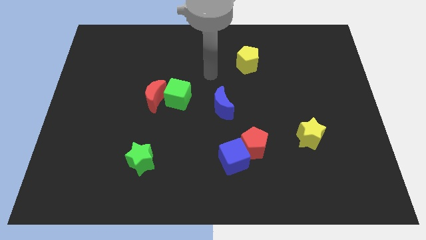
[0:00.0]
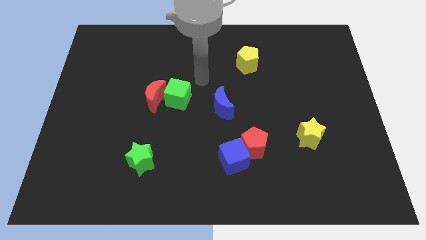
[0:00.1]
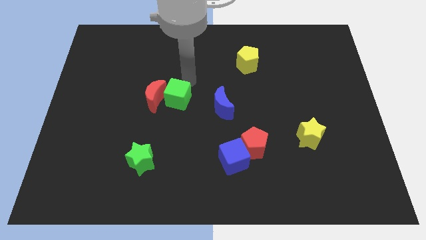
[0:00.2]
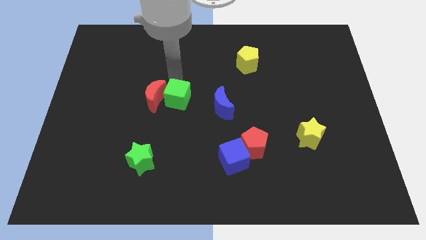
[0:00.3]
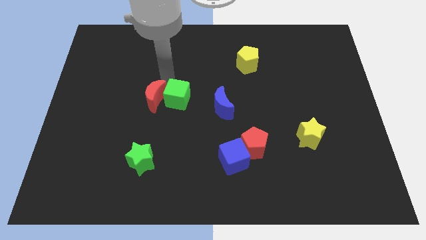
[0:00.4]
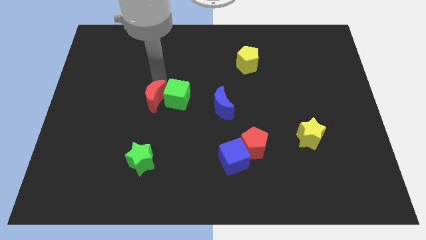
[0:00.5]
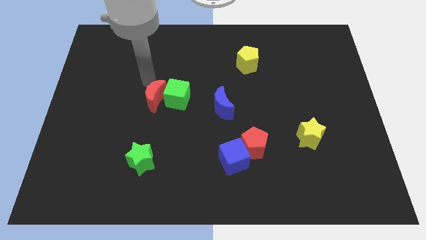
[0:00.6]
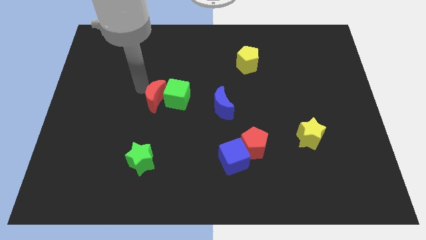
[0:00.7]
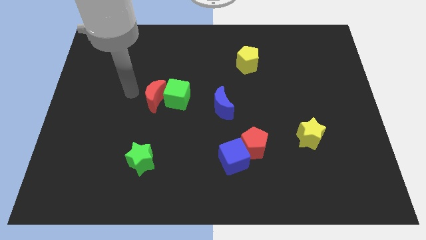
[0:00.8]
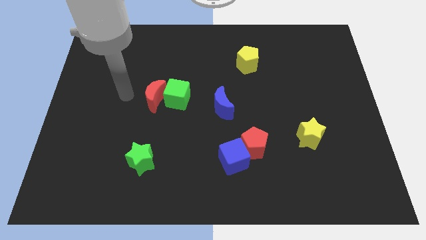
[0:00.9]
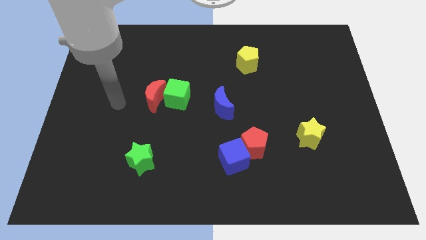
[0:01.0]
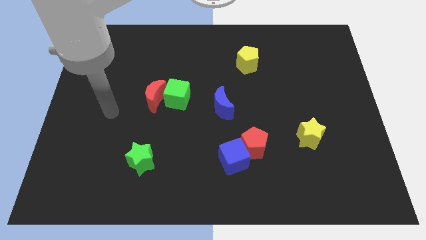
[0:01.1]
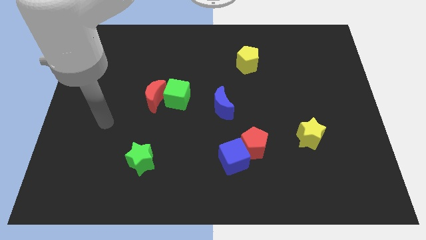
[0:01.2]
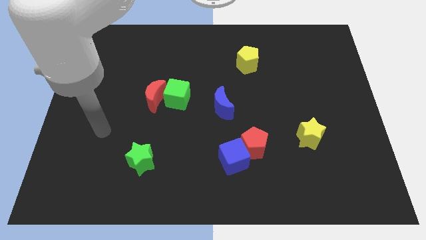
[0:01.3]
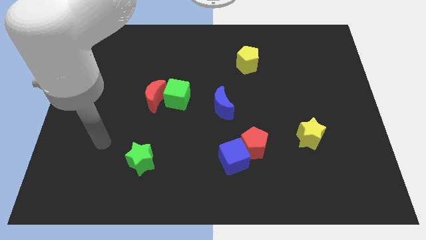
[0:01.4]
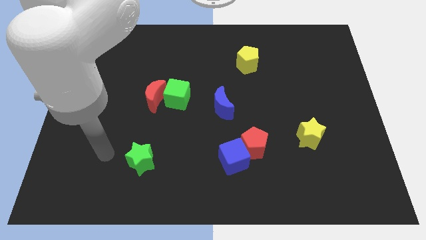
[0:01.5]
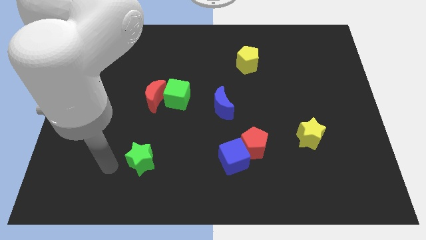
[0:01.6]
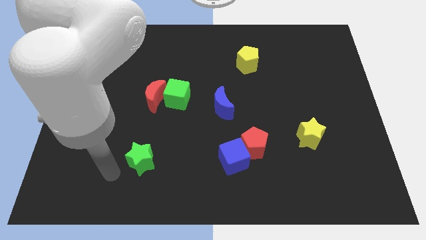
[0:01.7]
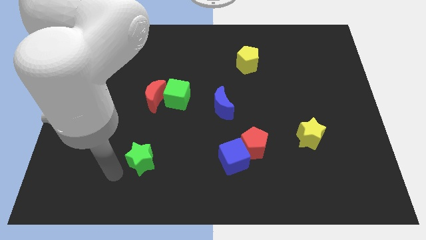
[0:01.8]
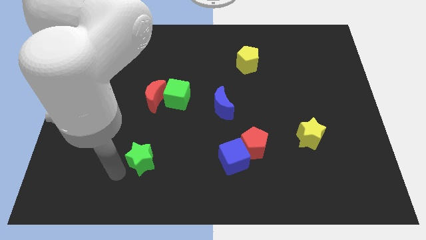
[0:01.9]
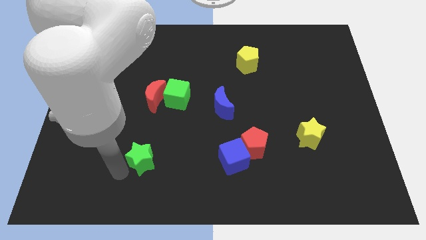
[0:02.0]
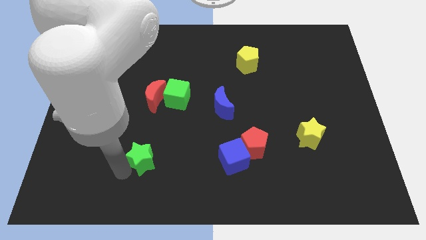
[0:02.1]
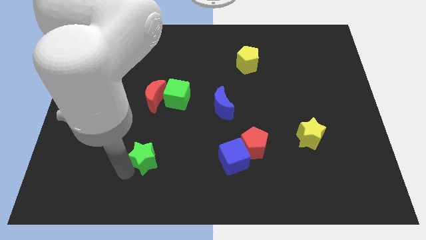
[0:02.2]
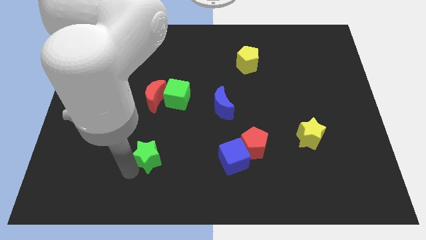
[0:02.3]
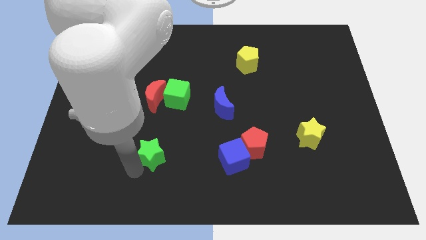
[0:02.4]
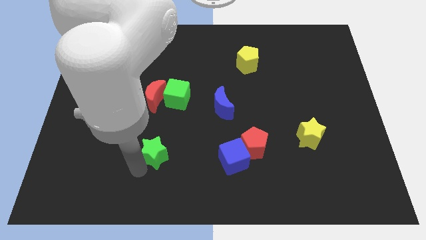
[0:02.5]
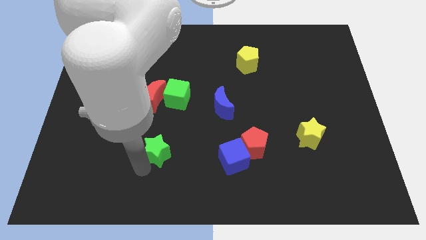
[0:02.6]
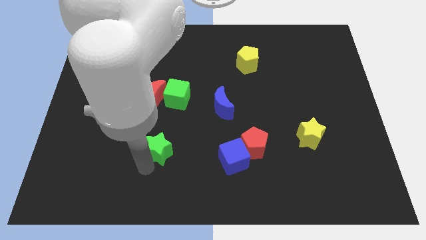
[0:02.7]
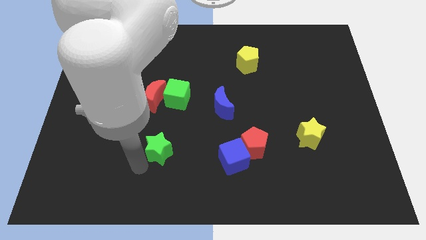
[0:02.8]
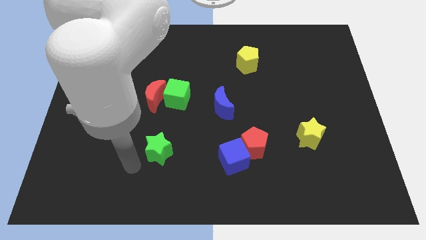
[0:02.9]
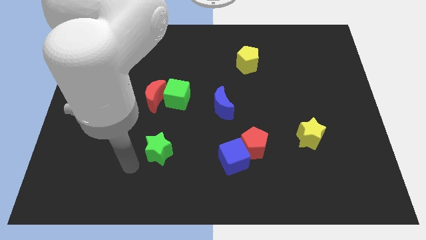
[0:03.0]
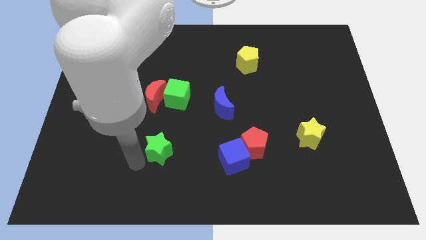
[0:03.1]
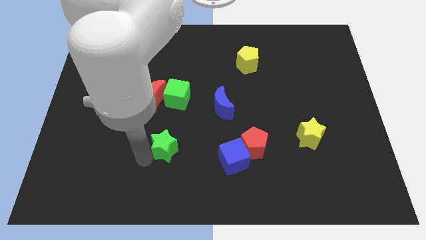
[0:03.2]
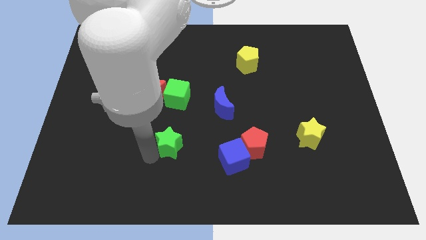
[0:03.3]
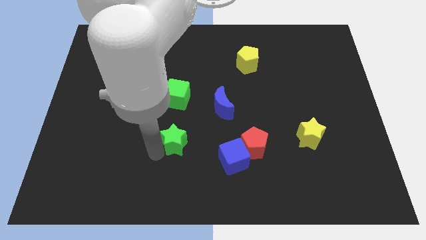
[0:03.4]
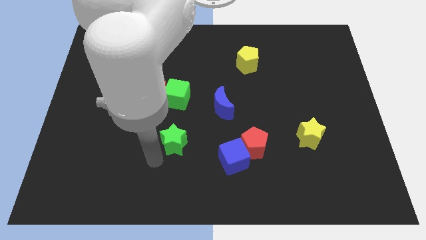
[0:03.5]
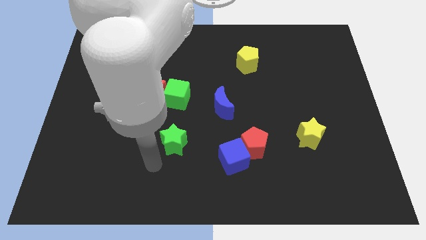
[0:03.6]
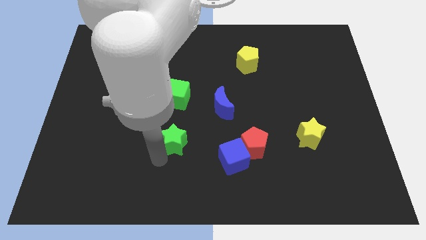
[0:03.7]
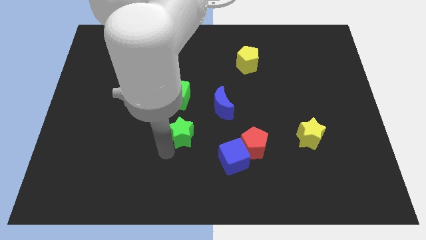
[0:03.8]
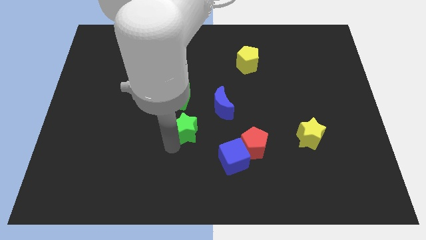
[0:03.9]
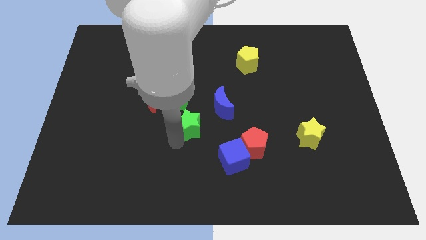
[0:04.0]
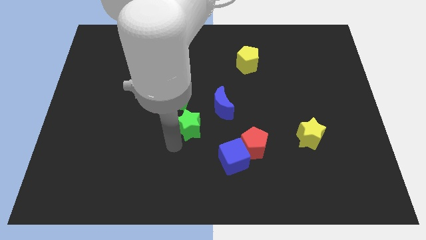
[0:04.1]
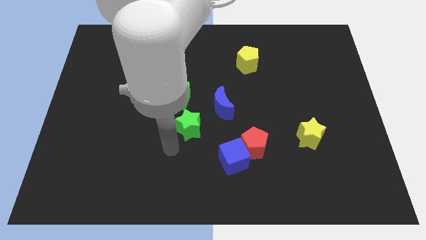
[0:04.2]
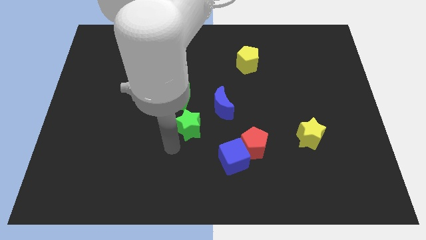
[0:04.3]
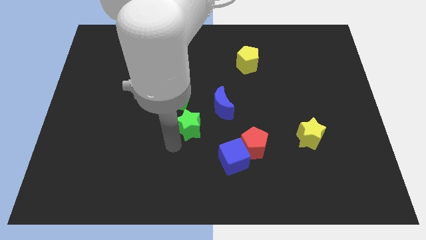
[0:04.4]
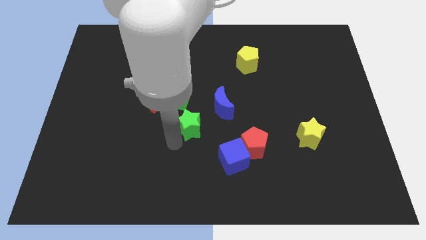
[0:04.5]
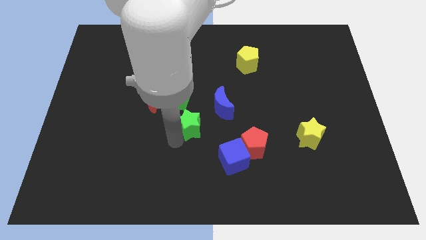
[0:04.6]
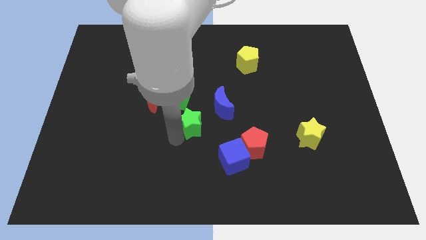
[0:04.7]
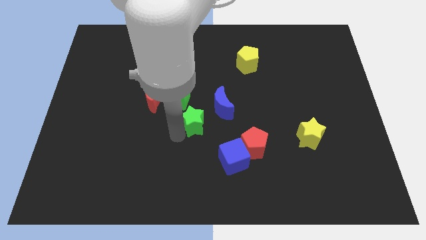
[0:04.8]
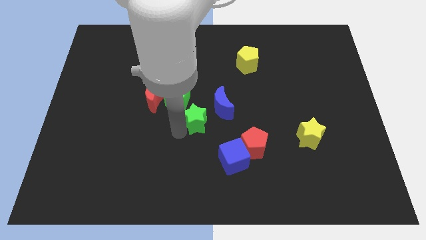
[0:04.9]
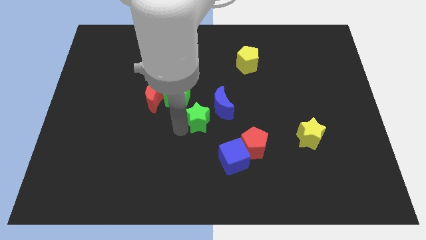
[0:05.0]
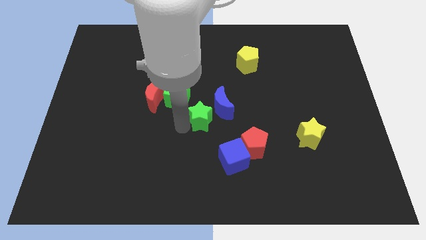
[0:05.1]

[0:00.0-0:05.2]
push the green star to the blue moon

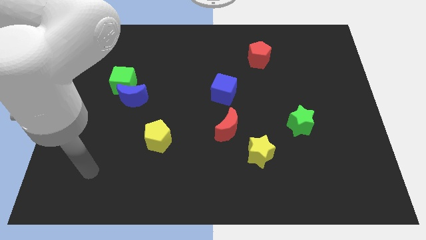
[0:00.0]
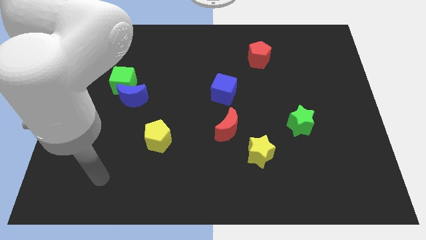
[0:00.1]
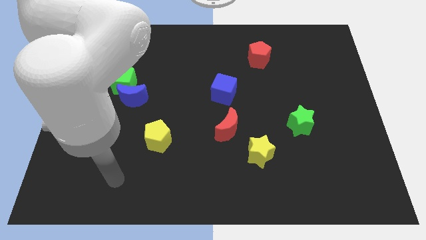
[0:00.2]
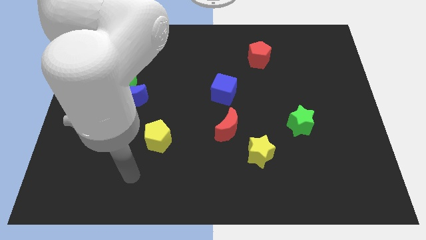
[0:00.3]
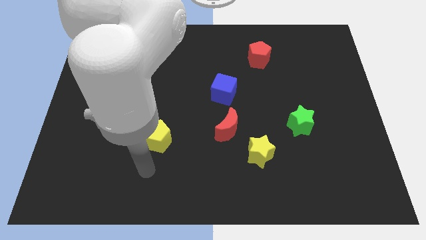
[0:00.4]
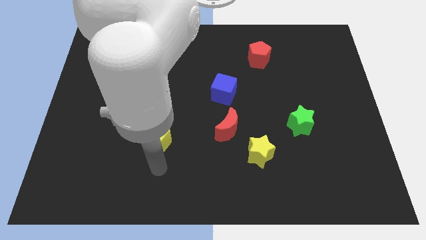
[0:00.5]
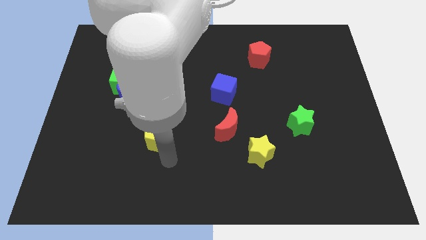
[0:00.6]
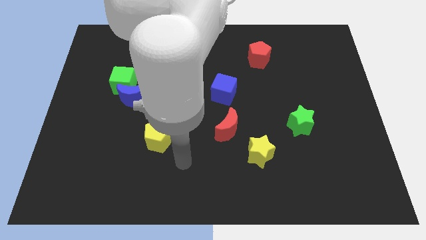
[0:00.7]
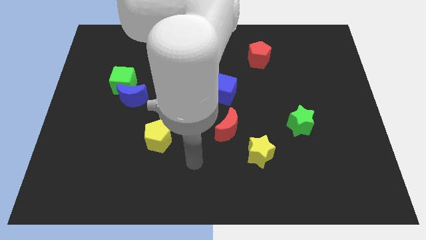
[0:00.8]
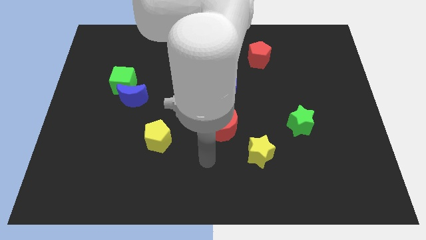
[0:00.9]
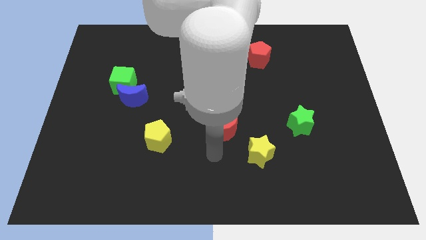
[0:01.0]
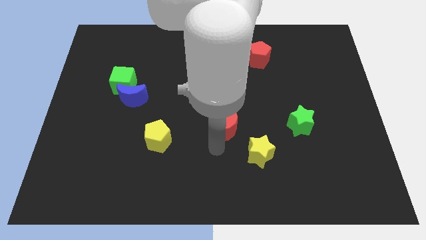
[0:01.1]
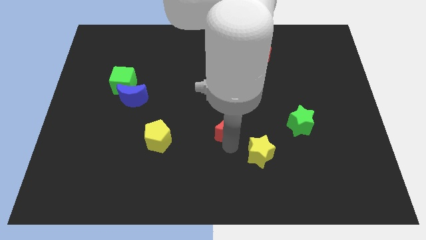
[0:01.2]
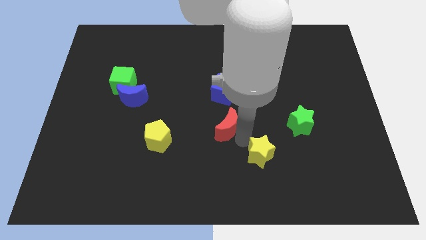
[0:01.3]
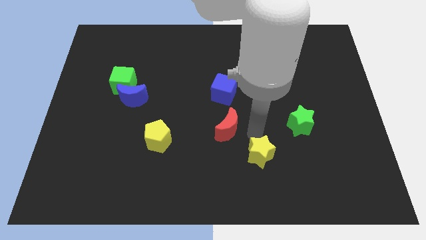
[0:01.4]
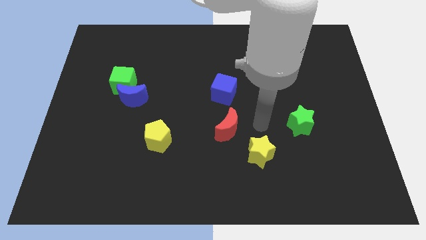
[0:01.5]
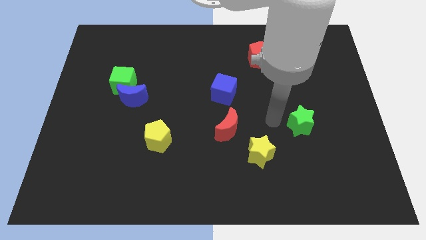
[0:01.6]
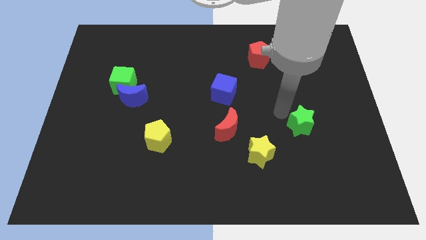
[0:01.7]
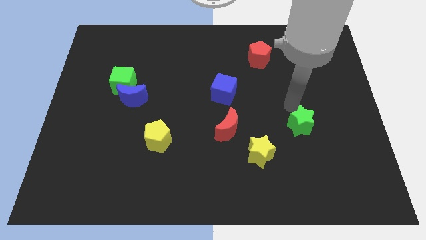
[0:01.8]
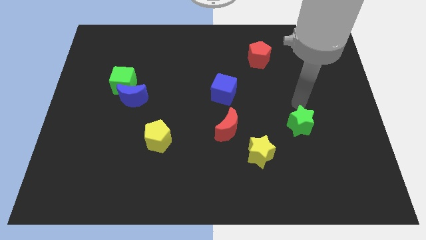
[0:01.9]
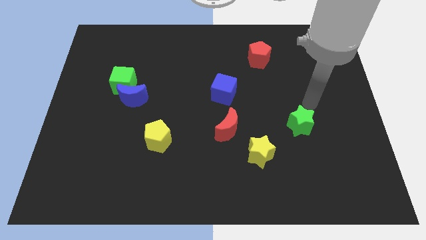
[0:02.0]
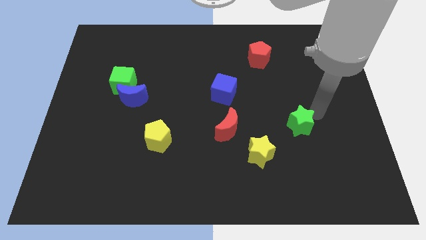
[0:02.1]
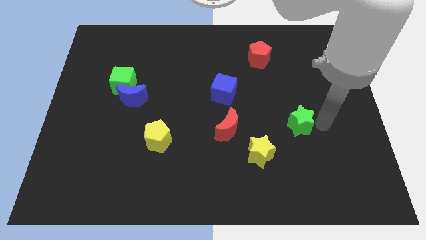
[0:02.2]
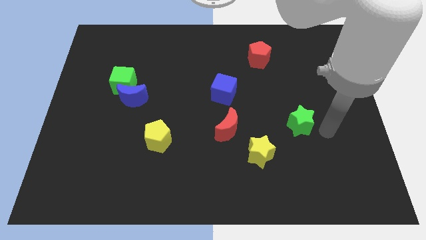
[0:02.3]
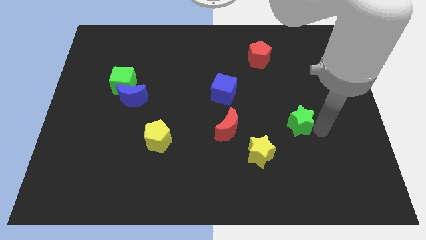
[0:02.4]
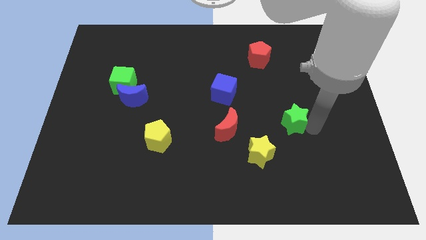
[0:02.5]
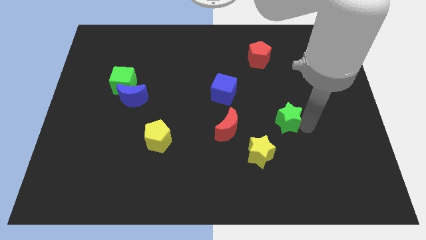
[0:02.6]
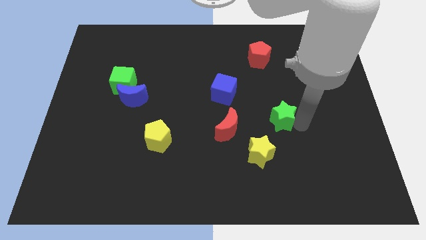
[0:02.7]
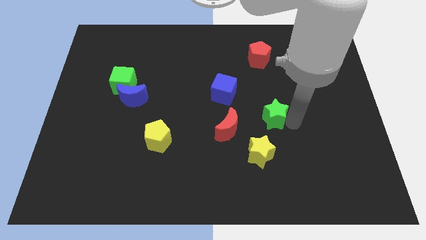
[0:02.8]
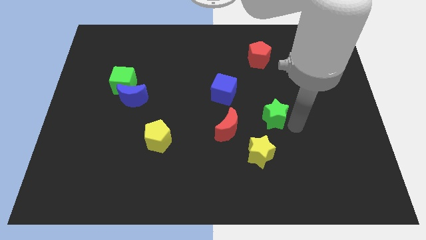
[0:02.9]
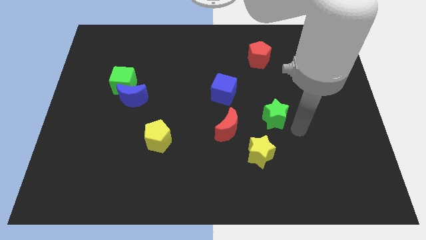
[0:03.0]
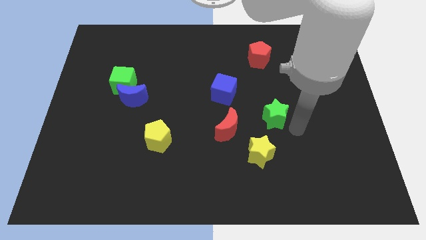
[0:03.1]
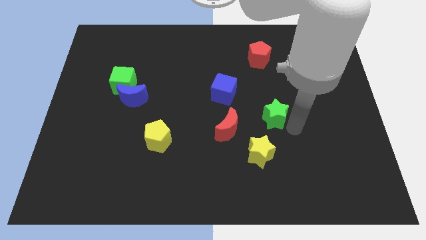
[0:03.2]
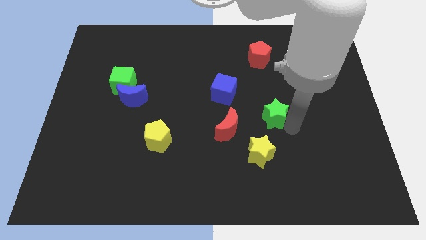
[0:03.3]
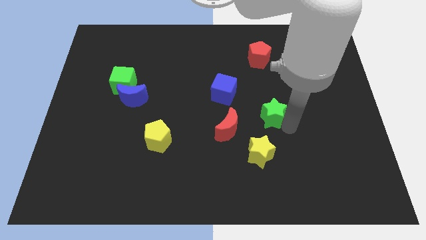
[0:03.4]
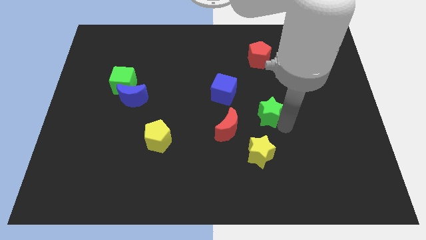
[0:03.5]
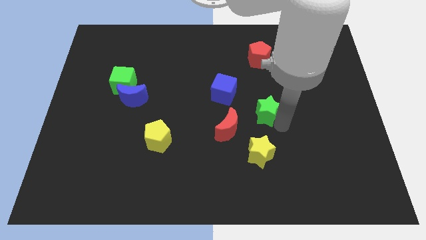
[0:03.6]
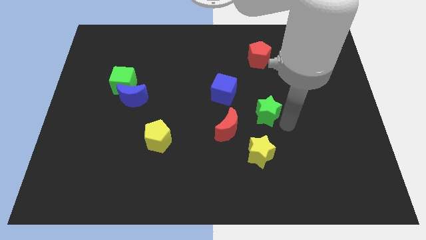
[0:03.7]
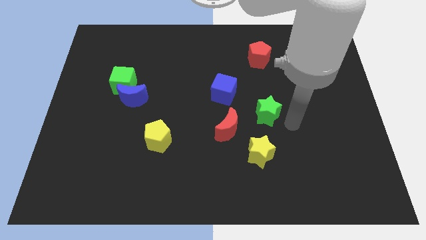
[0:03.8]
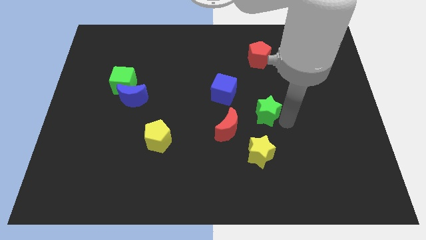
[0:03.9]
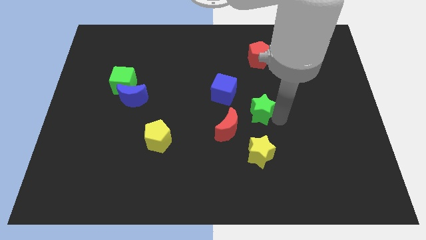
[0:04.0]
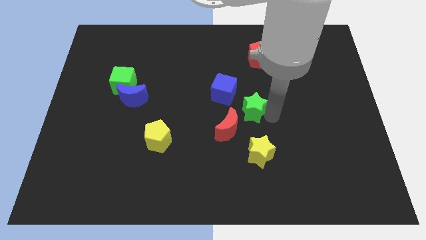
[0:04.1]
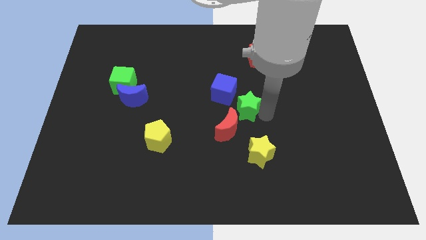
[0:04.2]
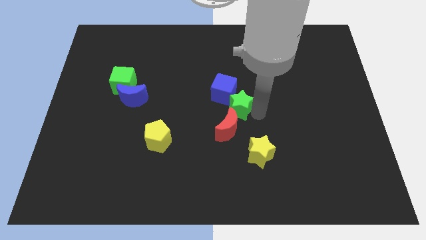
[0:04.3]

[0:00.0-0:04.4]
slide the green star close to the blue cube
